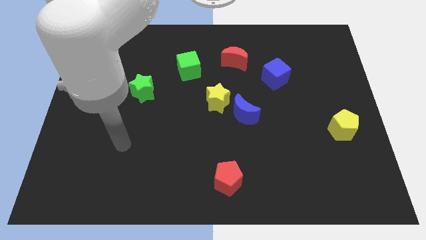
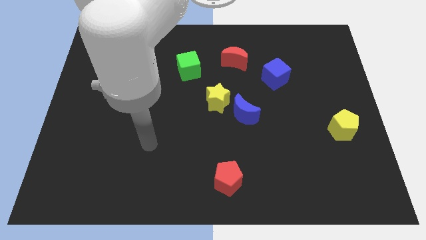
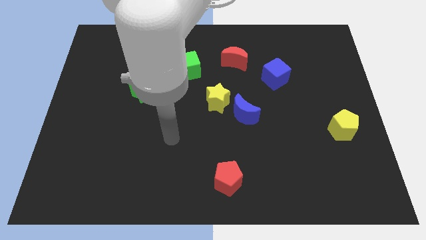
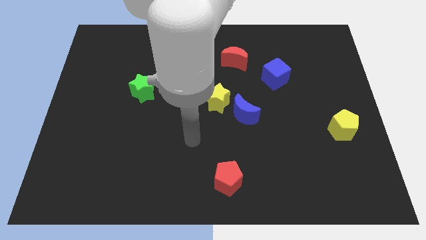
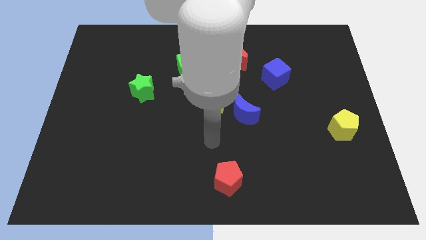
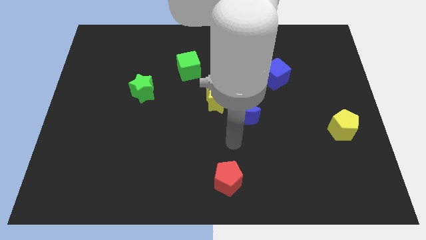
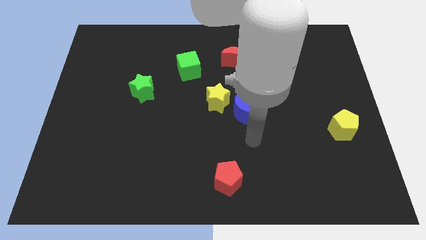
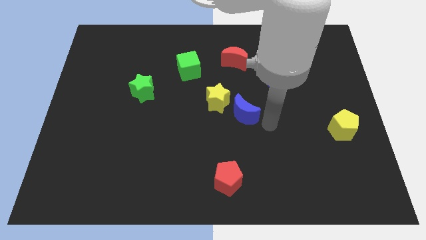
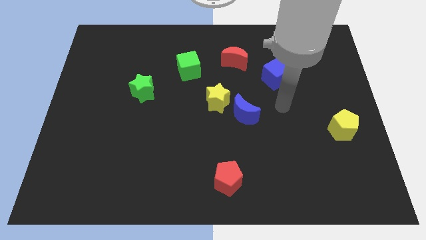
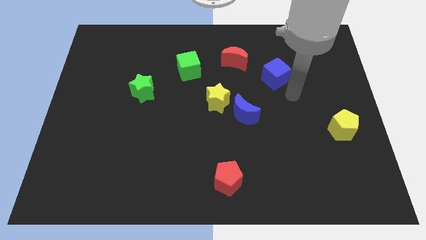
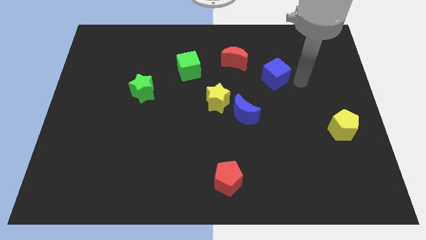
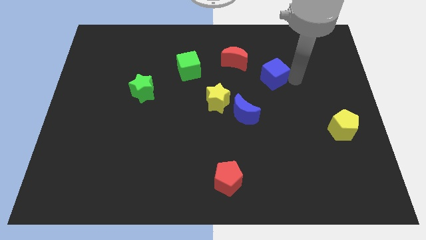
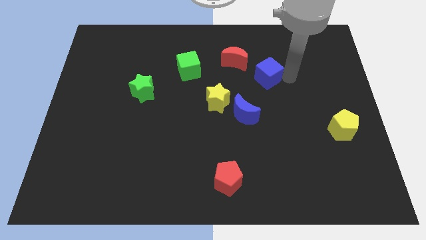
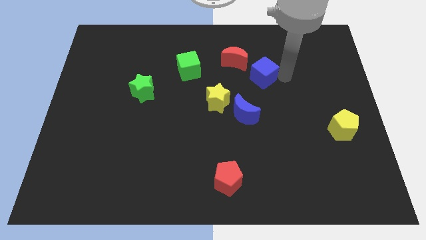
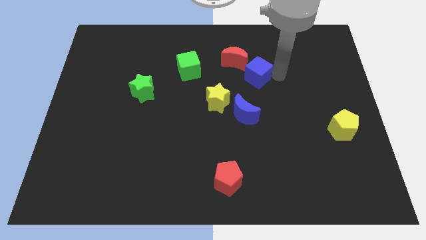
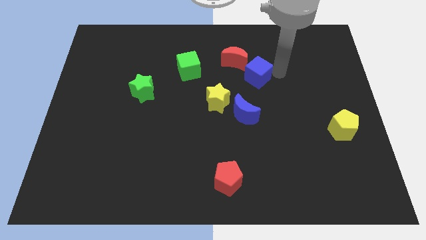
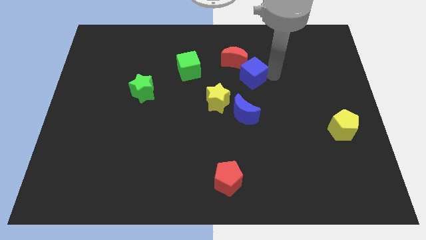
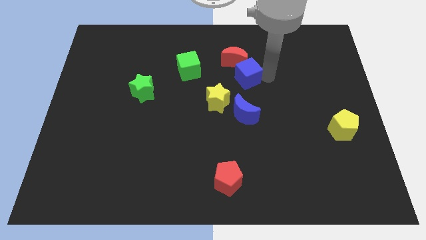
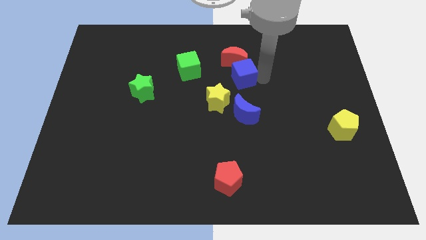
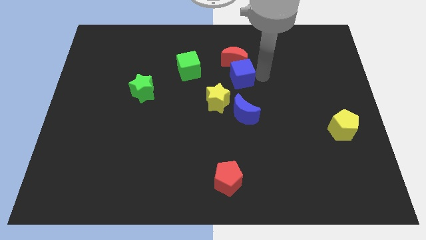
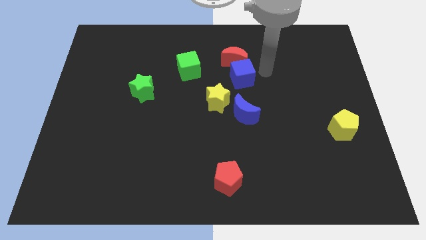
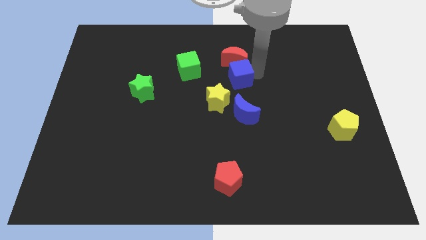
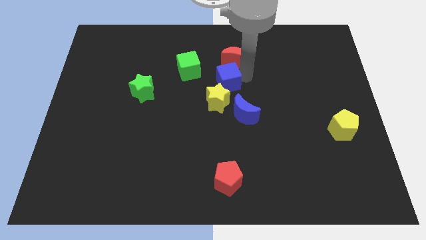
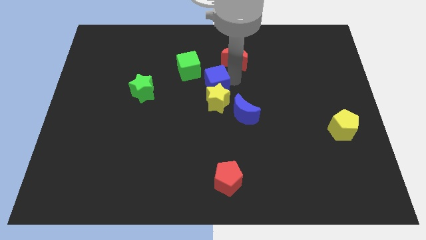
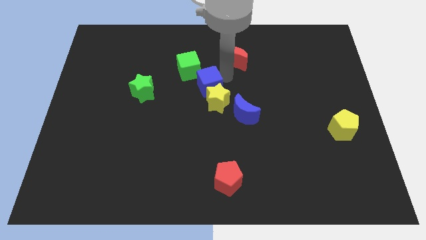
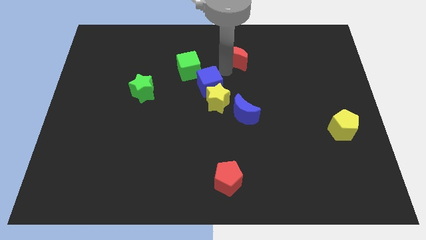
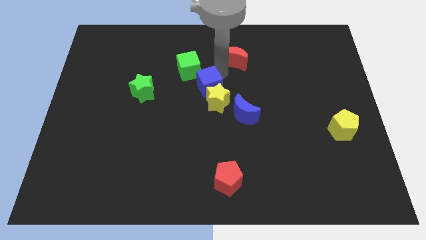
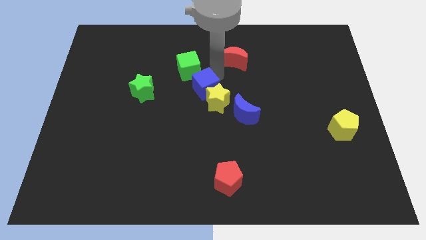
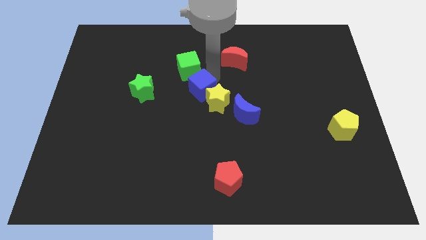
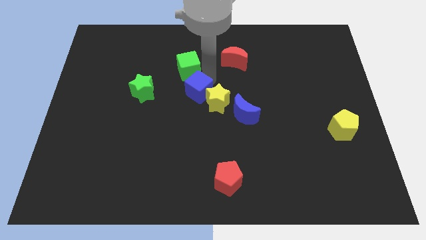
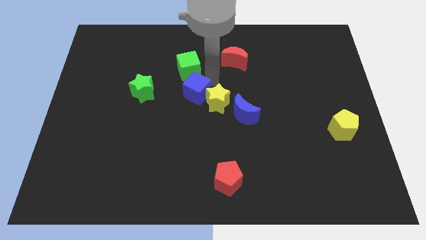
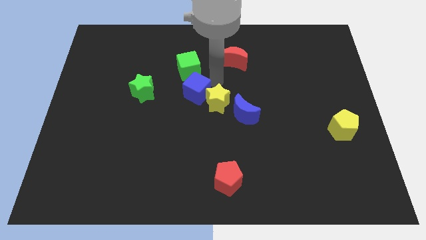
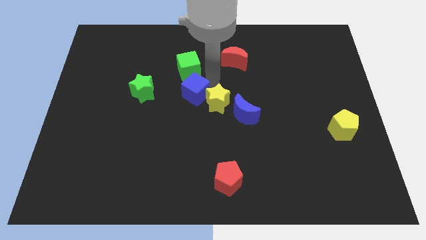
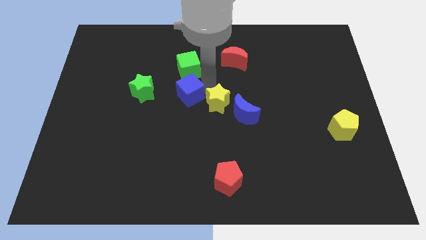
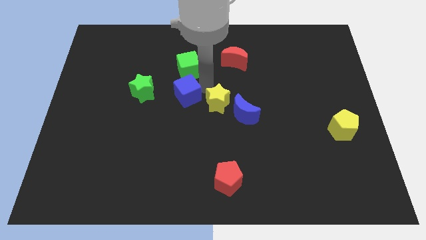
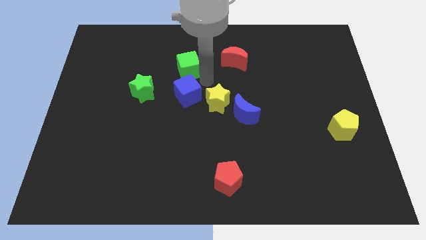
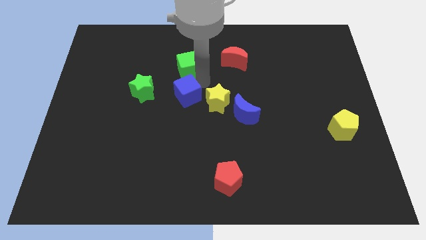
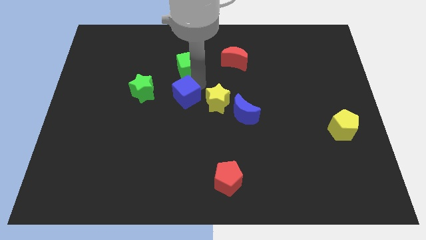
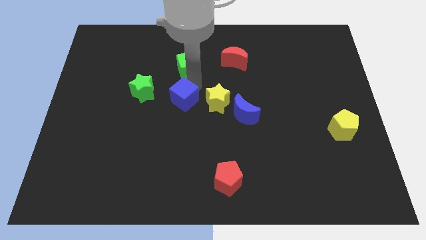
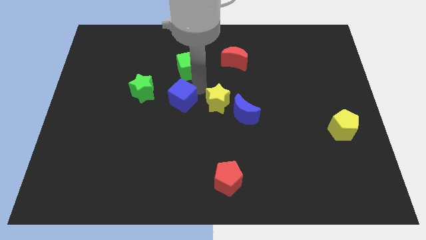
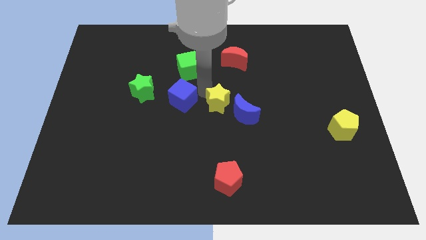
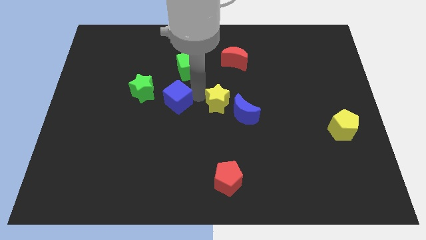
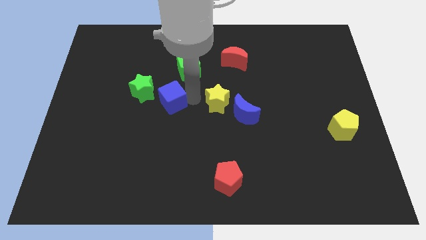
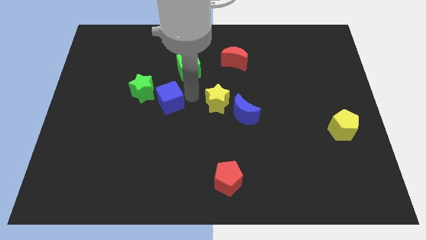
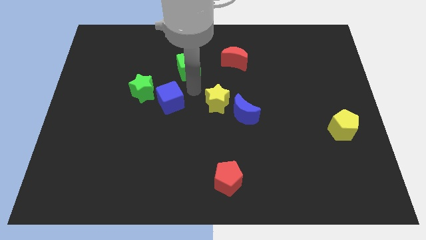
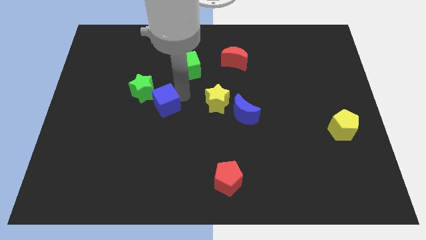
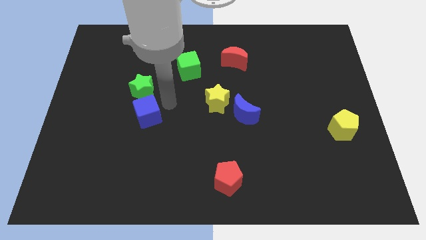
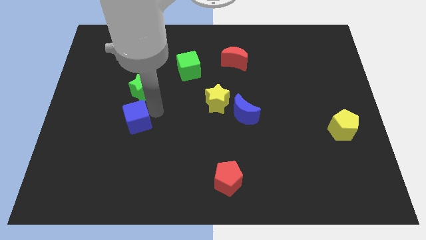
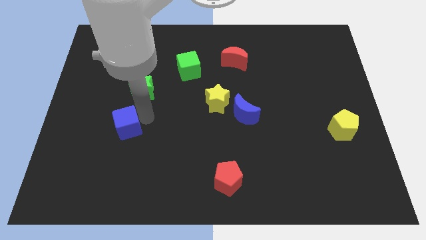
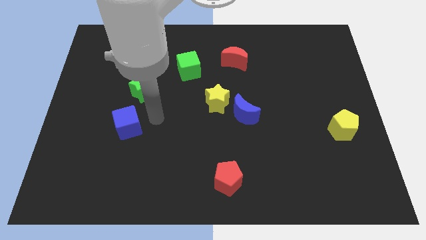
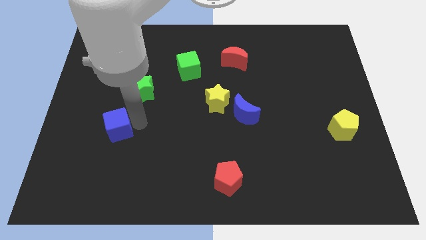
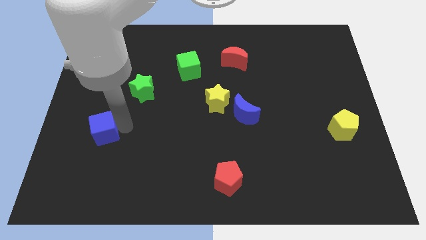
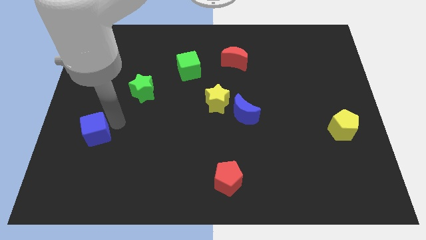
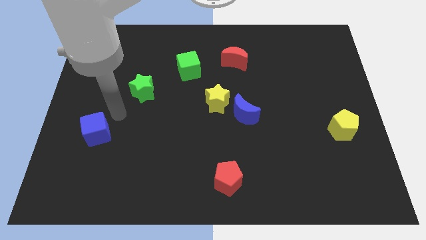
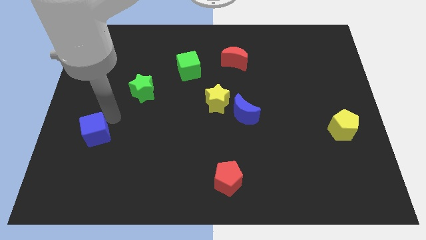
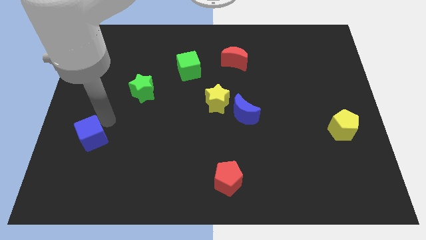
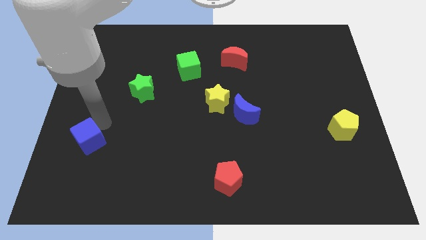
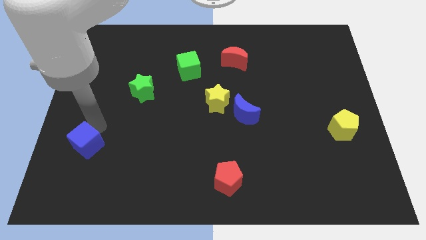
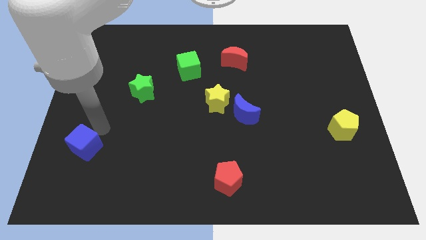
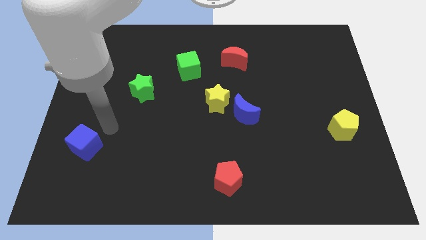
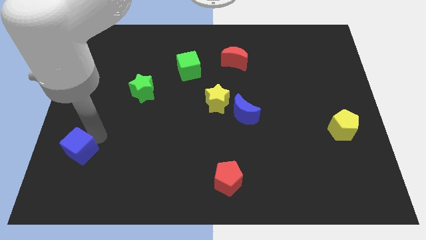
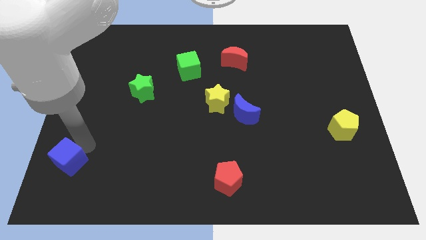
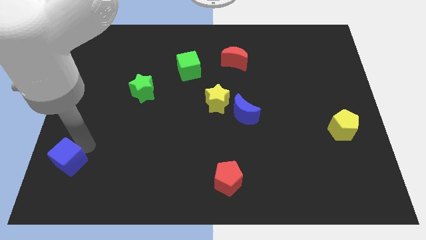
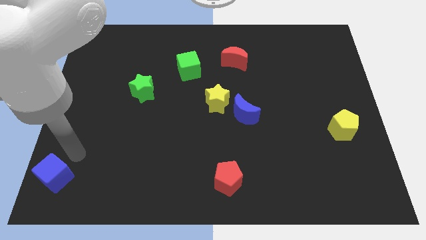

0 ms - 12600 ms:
slide the blue cube to the bottom left of the board
